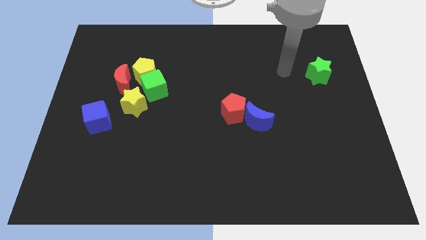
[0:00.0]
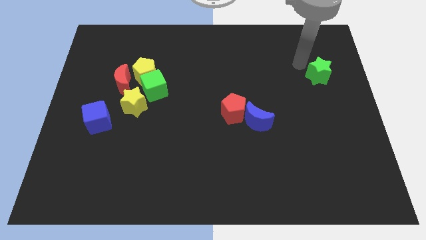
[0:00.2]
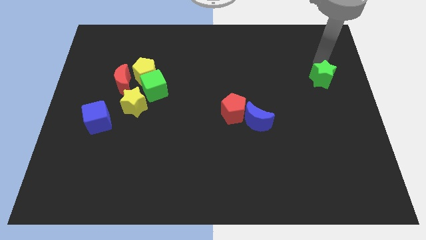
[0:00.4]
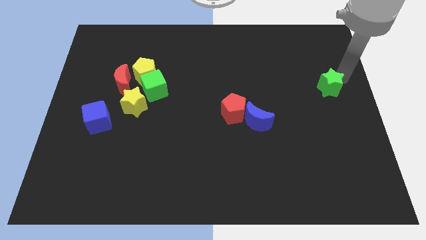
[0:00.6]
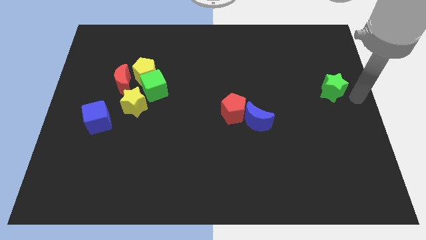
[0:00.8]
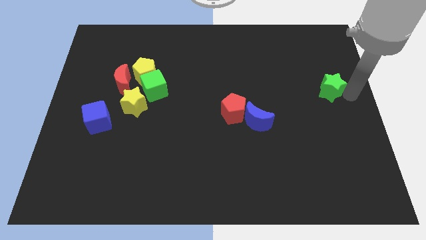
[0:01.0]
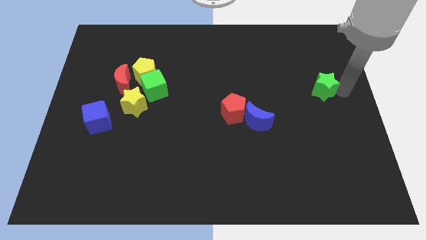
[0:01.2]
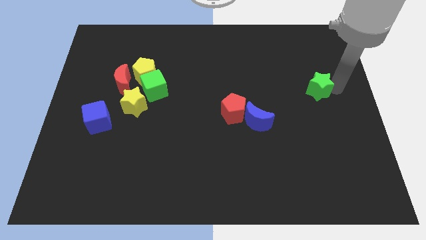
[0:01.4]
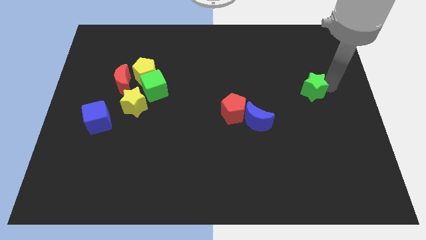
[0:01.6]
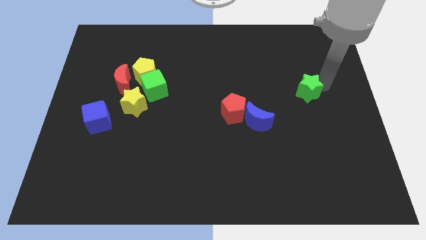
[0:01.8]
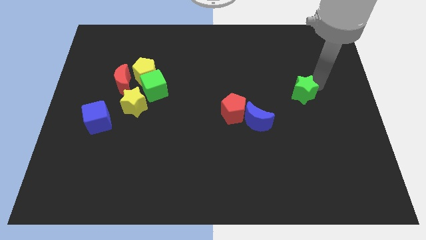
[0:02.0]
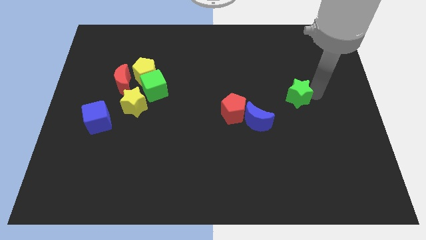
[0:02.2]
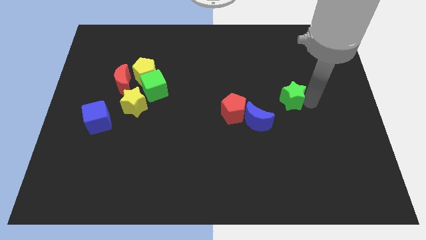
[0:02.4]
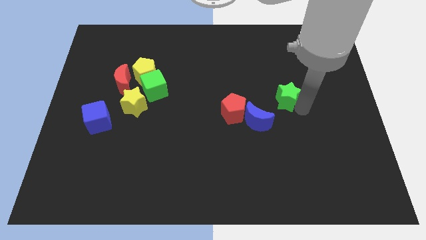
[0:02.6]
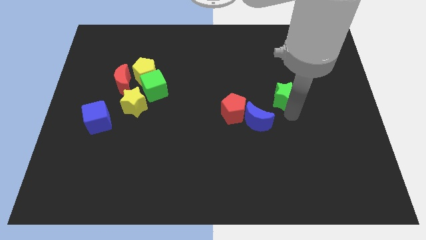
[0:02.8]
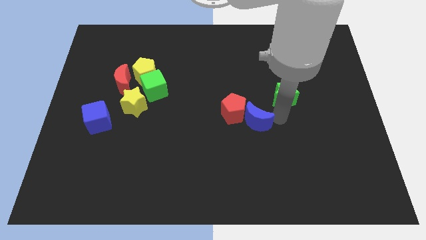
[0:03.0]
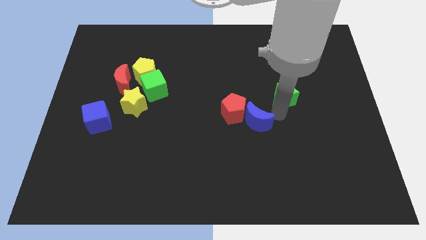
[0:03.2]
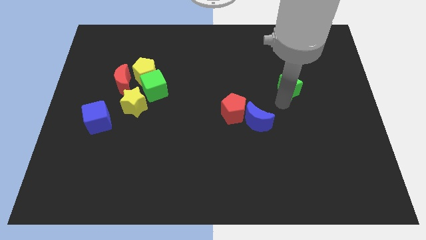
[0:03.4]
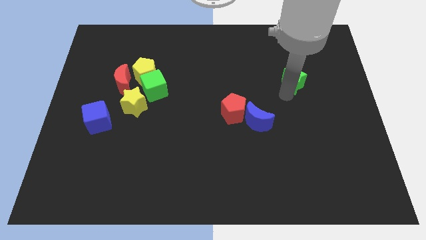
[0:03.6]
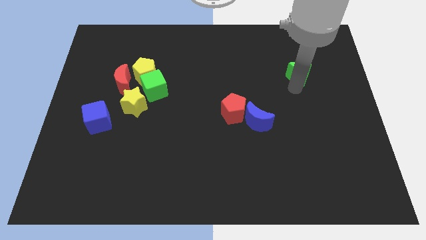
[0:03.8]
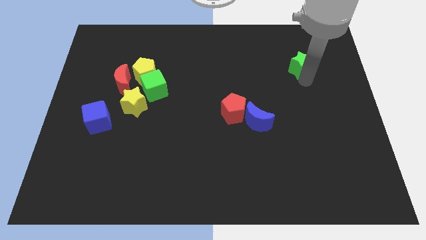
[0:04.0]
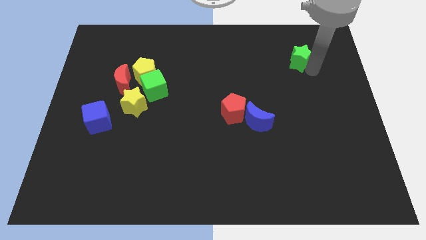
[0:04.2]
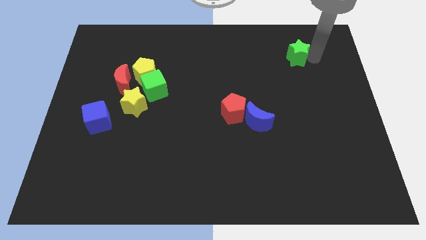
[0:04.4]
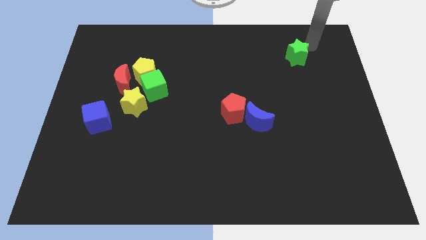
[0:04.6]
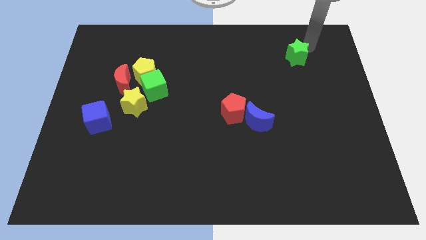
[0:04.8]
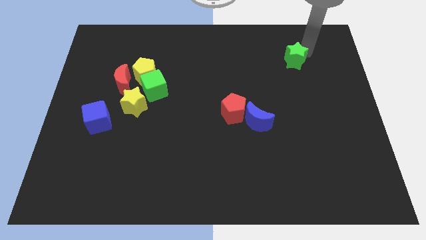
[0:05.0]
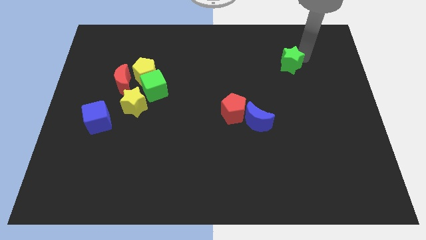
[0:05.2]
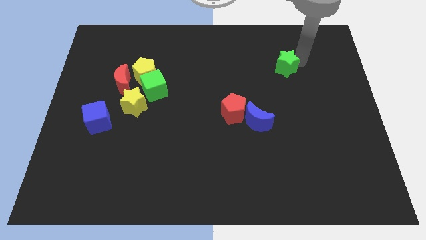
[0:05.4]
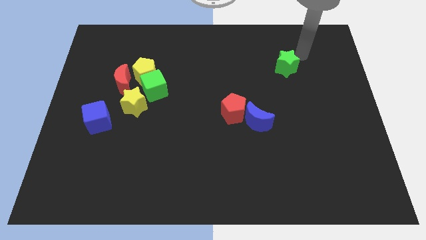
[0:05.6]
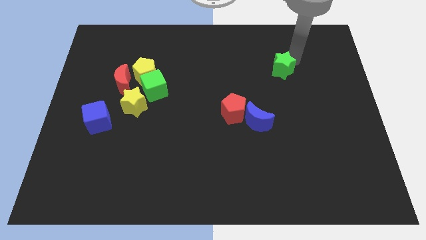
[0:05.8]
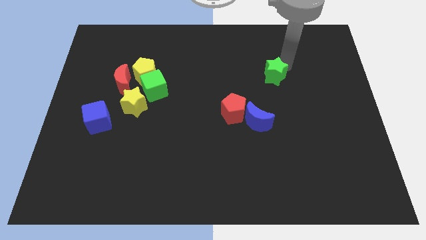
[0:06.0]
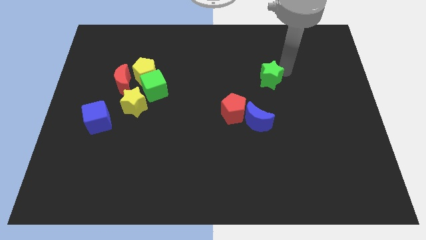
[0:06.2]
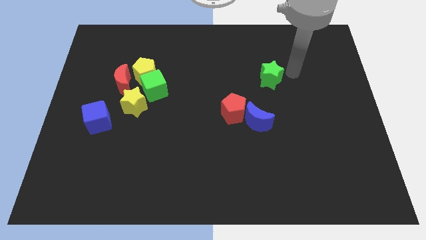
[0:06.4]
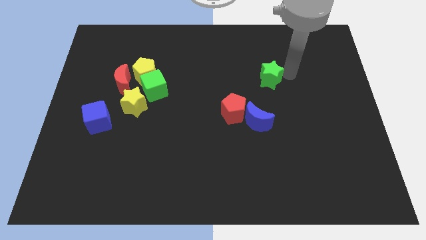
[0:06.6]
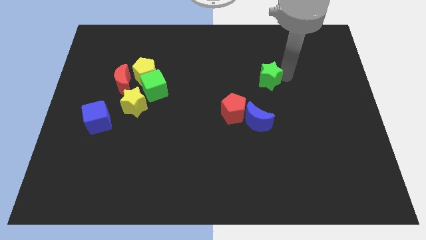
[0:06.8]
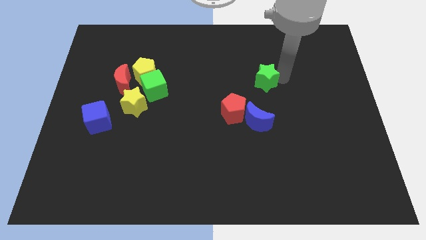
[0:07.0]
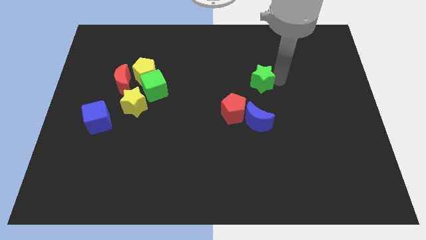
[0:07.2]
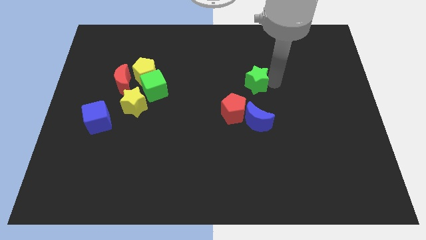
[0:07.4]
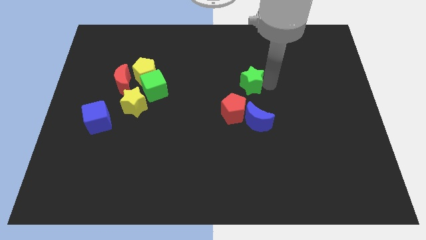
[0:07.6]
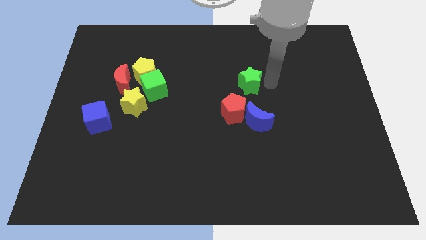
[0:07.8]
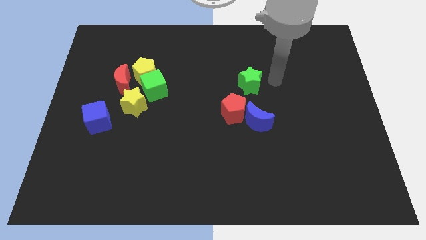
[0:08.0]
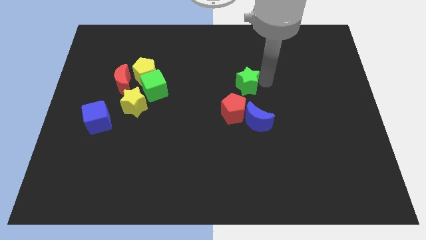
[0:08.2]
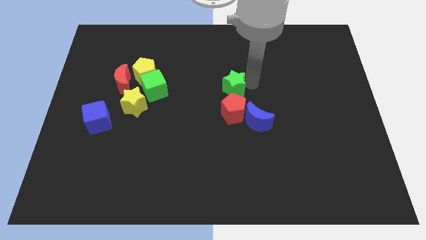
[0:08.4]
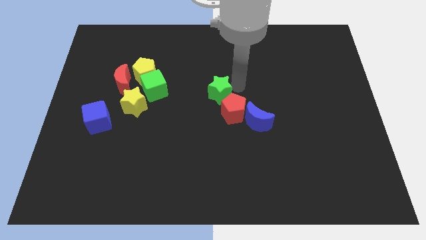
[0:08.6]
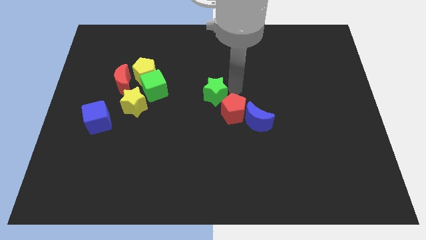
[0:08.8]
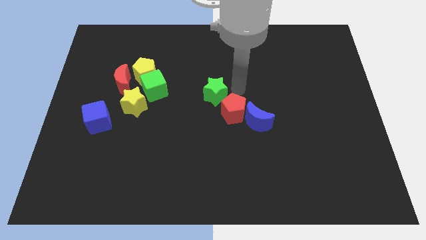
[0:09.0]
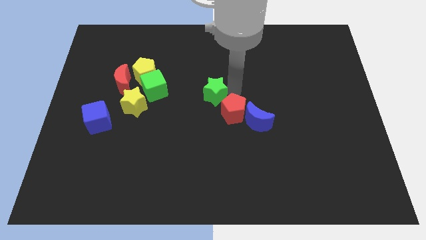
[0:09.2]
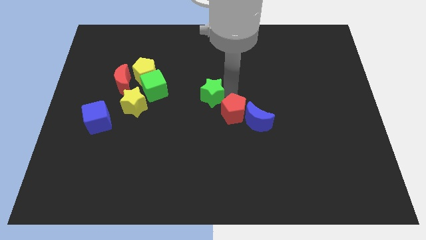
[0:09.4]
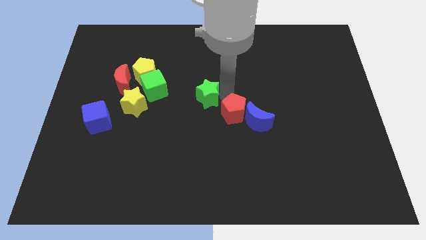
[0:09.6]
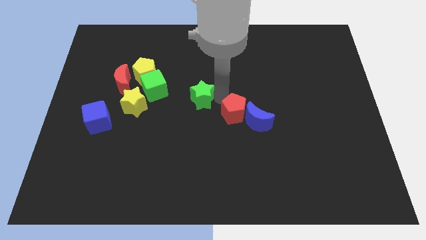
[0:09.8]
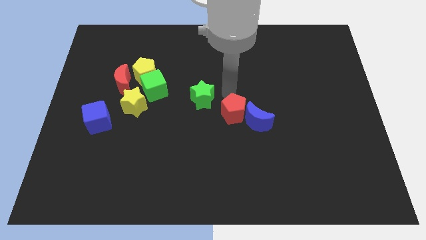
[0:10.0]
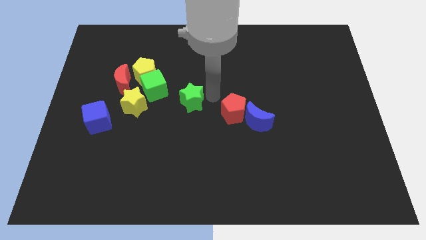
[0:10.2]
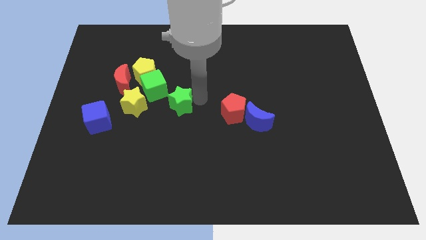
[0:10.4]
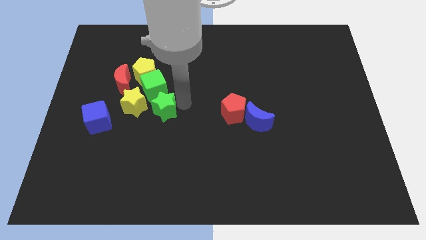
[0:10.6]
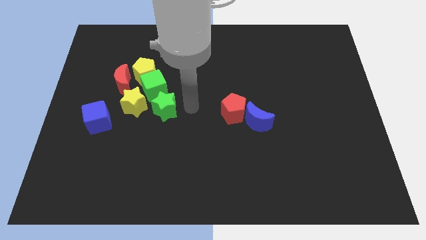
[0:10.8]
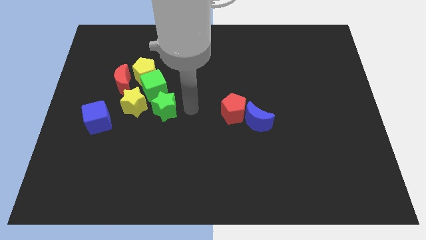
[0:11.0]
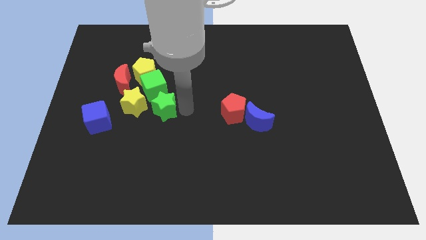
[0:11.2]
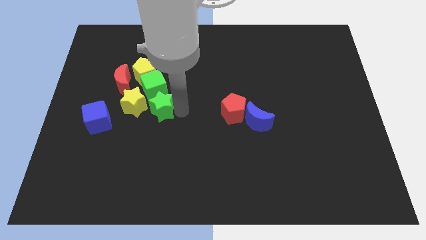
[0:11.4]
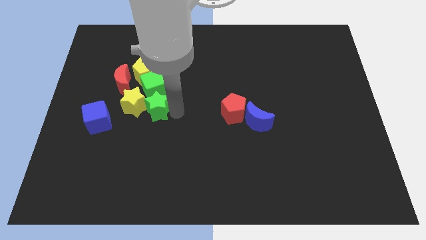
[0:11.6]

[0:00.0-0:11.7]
put the green star next to the yellow star

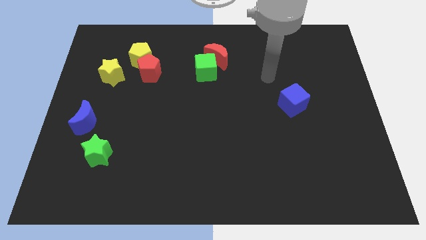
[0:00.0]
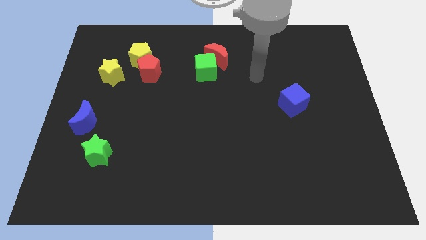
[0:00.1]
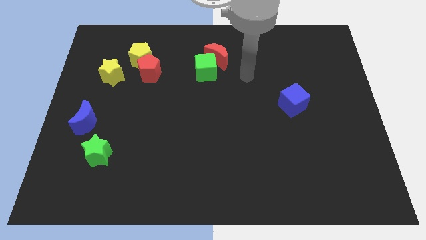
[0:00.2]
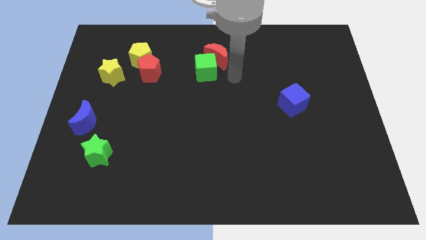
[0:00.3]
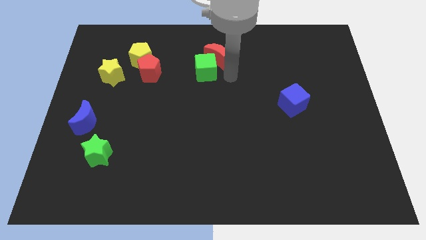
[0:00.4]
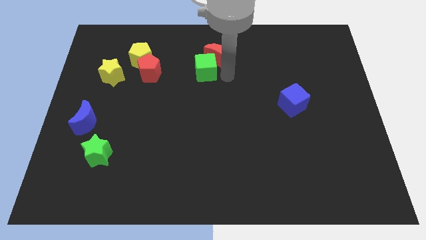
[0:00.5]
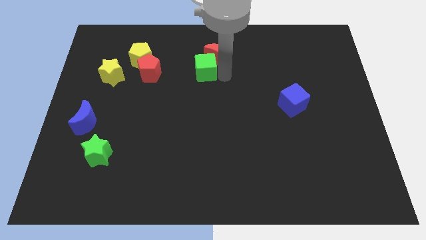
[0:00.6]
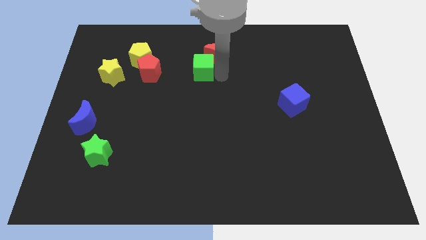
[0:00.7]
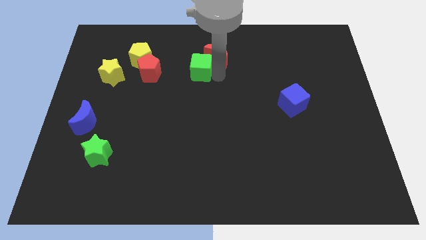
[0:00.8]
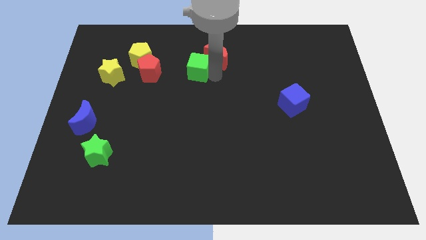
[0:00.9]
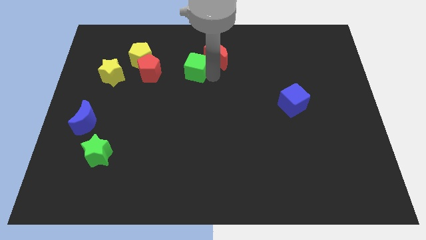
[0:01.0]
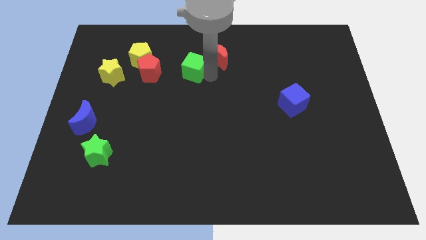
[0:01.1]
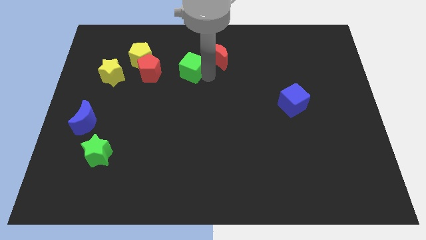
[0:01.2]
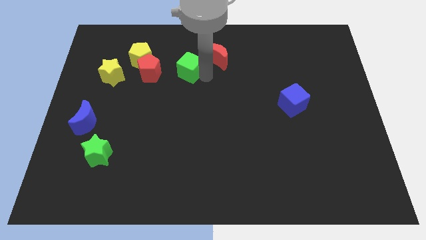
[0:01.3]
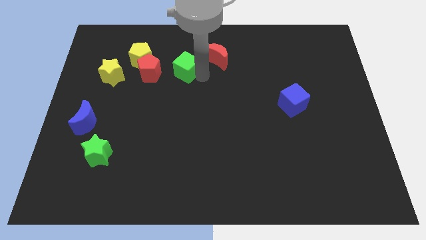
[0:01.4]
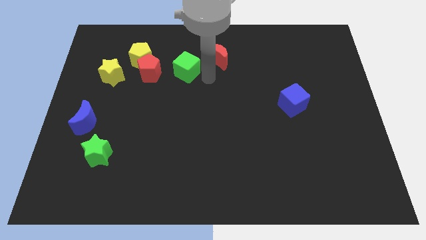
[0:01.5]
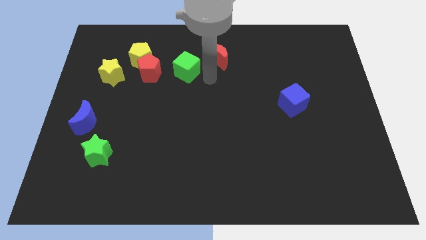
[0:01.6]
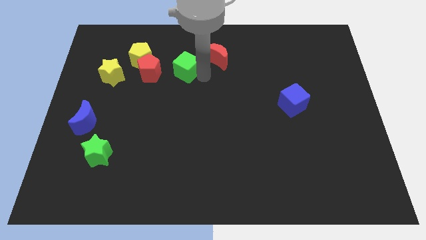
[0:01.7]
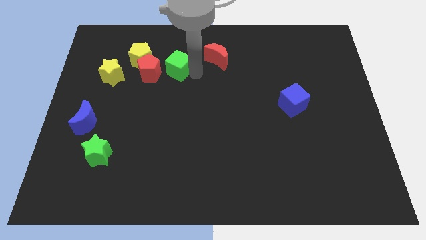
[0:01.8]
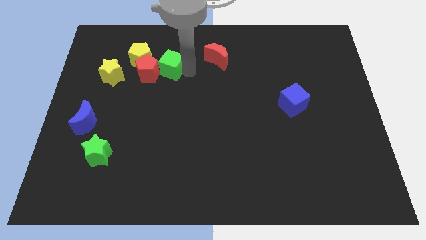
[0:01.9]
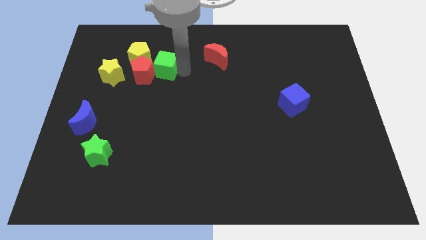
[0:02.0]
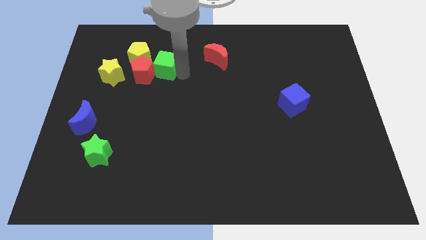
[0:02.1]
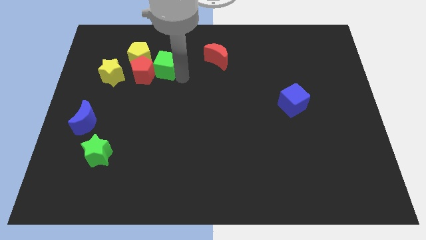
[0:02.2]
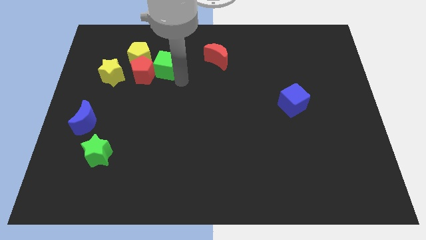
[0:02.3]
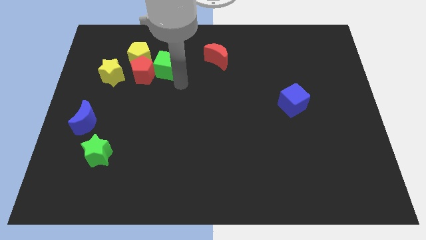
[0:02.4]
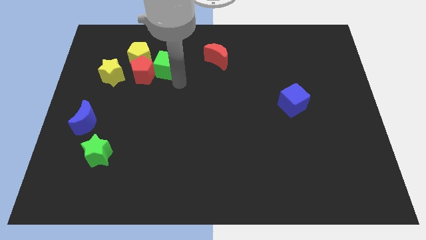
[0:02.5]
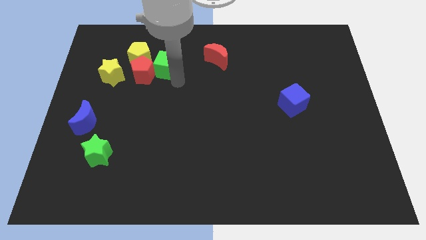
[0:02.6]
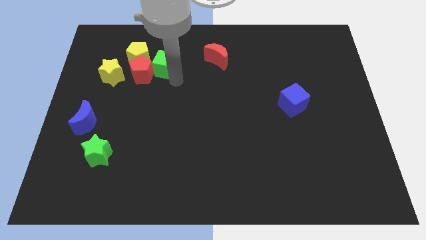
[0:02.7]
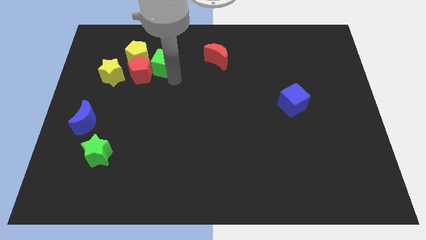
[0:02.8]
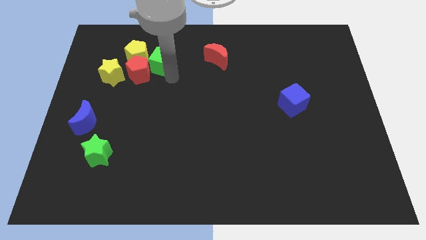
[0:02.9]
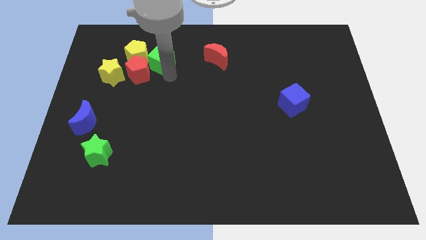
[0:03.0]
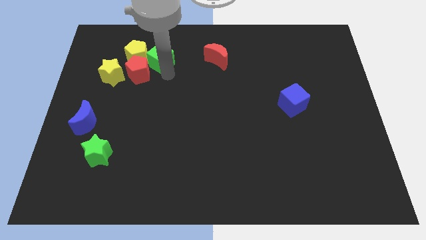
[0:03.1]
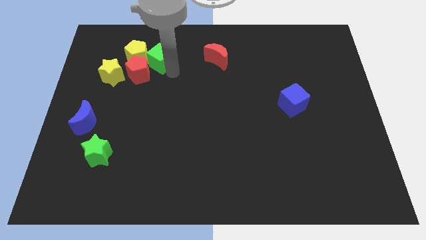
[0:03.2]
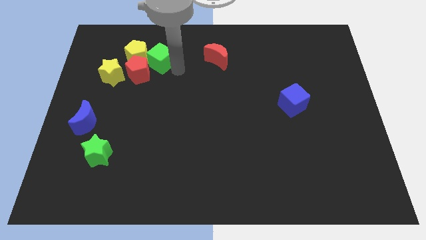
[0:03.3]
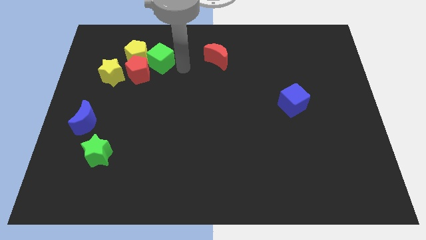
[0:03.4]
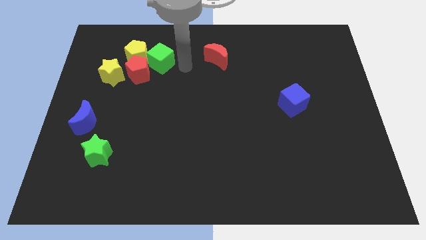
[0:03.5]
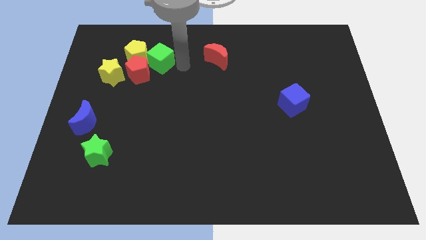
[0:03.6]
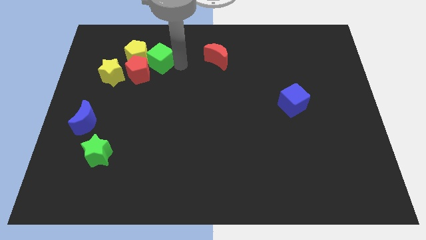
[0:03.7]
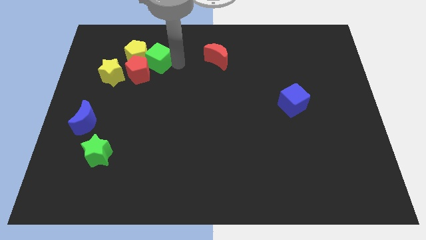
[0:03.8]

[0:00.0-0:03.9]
put the green cube towards the yellow pentagon
